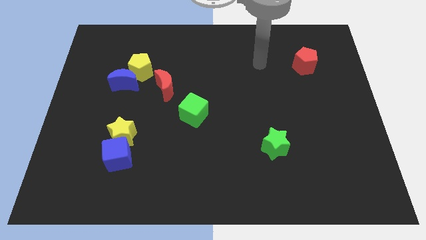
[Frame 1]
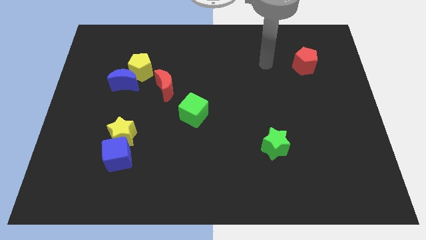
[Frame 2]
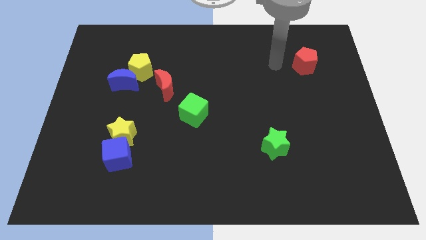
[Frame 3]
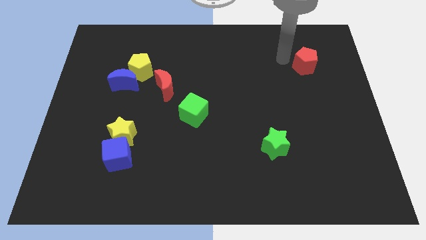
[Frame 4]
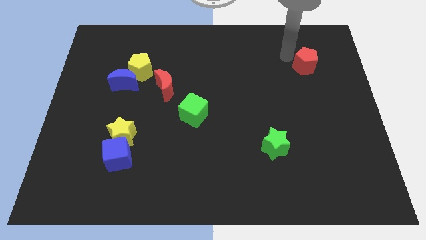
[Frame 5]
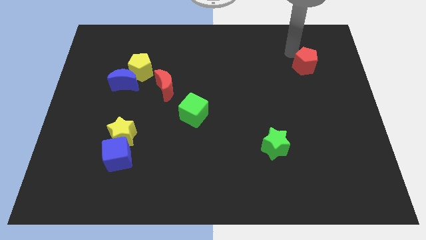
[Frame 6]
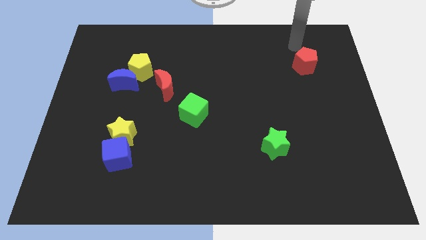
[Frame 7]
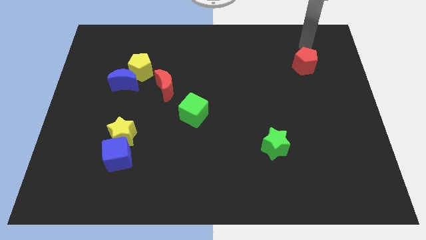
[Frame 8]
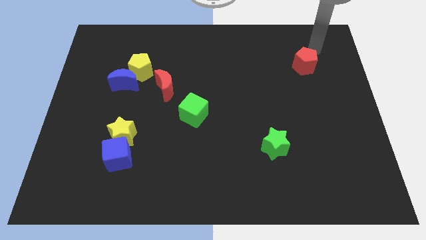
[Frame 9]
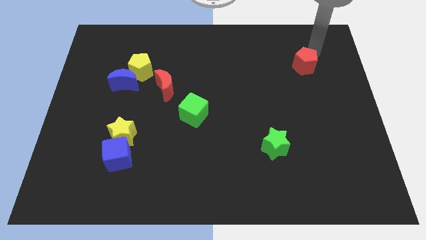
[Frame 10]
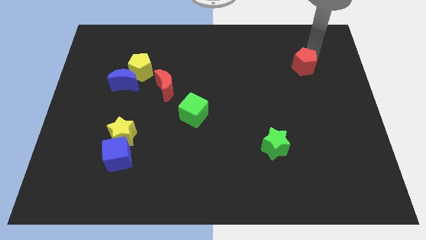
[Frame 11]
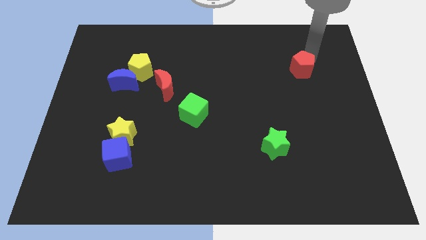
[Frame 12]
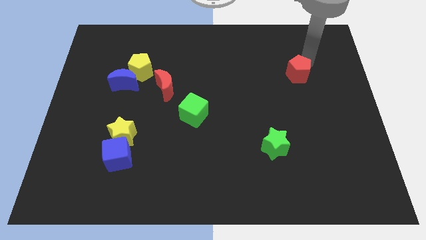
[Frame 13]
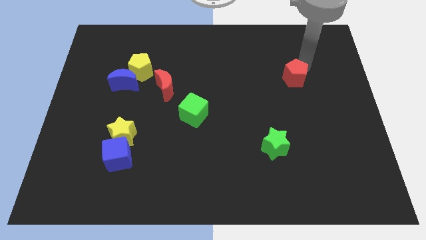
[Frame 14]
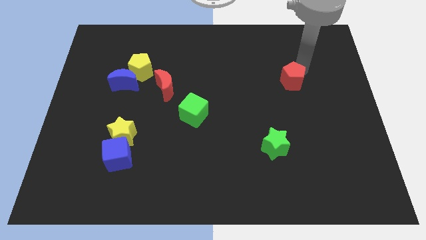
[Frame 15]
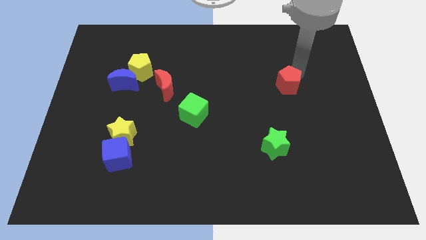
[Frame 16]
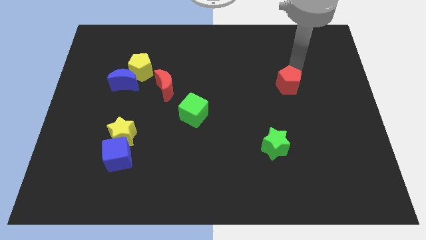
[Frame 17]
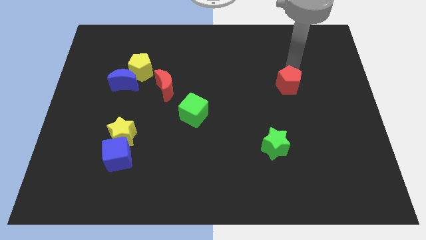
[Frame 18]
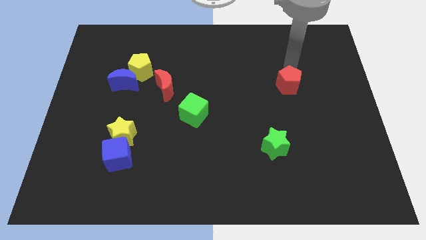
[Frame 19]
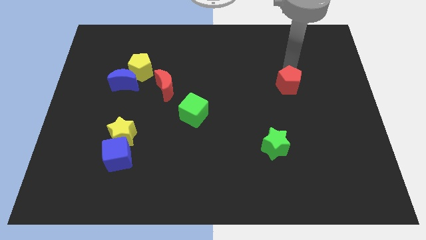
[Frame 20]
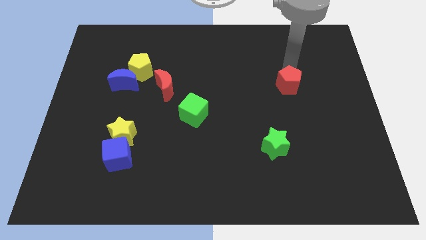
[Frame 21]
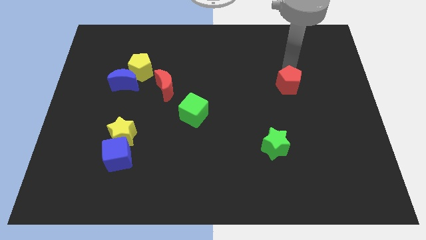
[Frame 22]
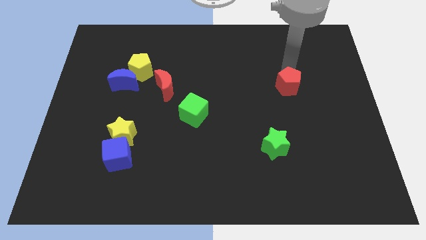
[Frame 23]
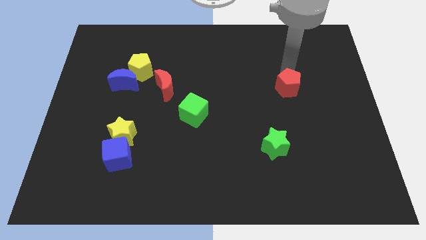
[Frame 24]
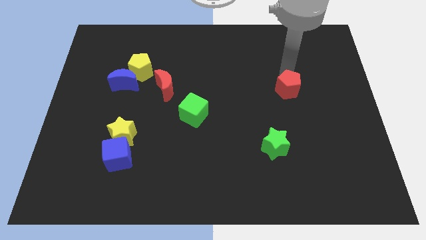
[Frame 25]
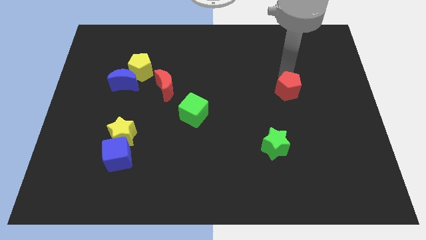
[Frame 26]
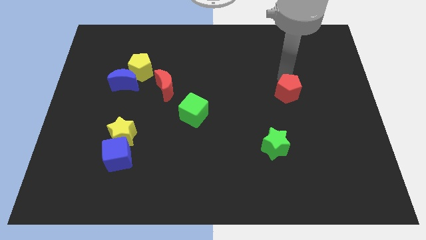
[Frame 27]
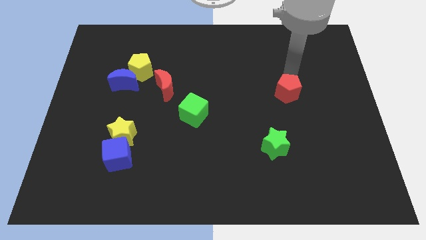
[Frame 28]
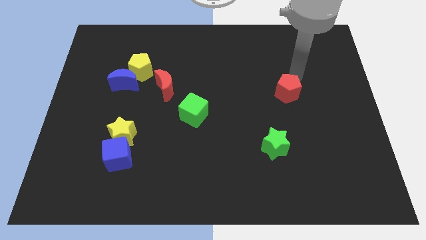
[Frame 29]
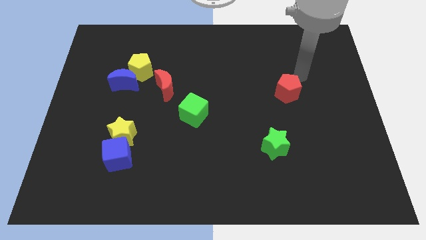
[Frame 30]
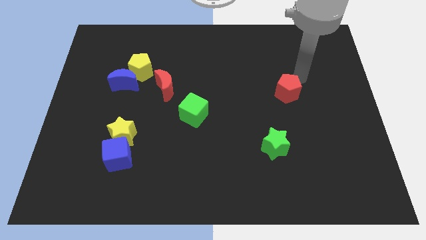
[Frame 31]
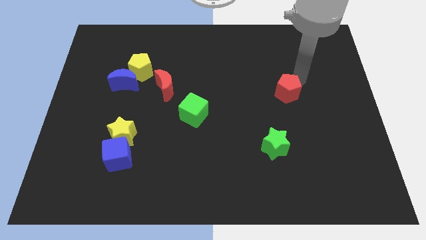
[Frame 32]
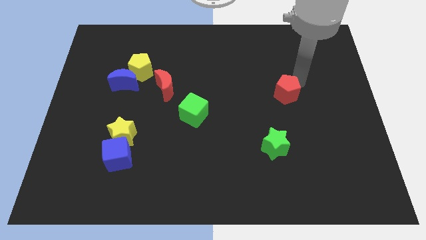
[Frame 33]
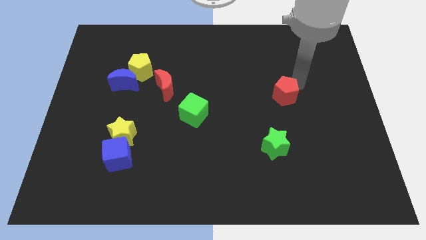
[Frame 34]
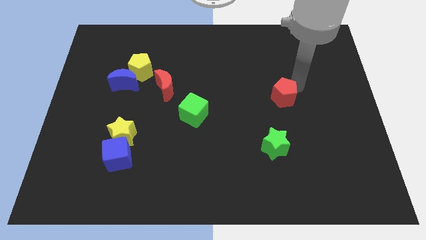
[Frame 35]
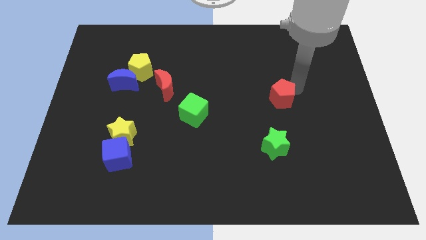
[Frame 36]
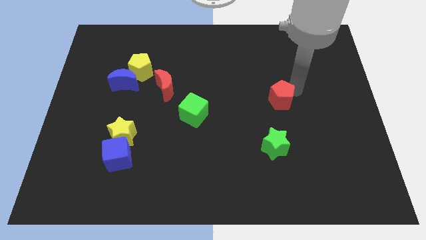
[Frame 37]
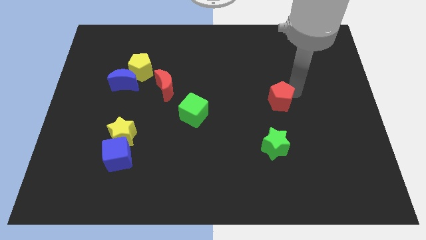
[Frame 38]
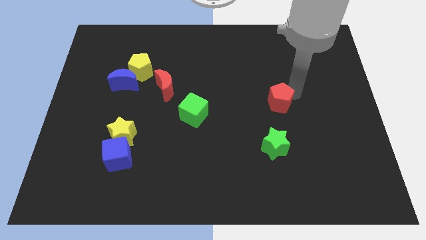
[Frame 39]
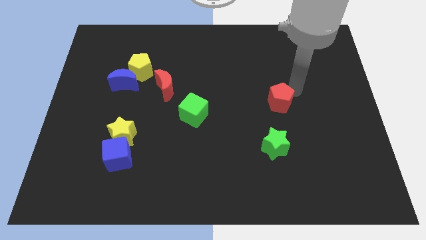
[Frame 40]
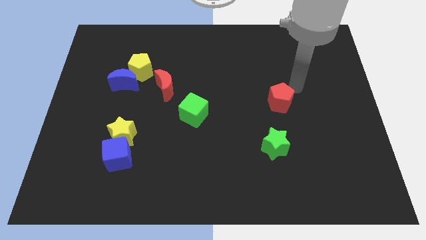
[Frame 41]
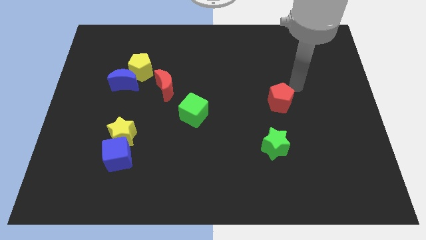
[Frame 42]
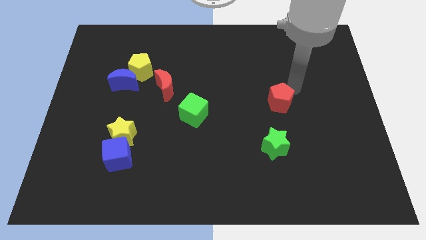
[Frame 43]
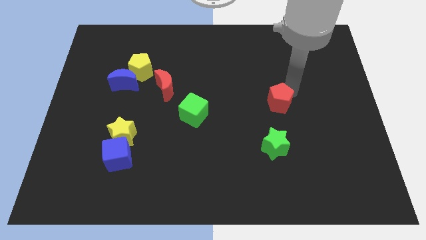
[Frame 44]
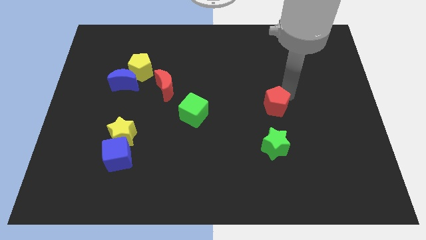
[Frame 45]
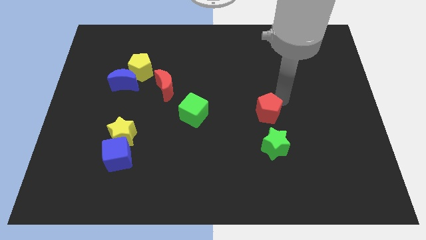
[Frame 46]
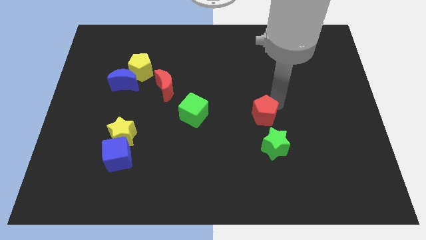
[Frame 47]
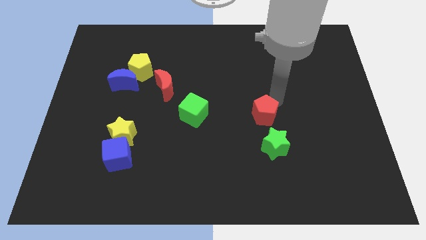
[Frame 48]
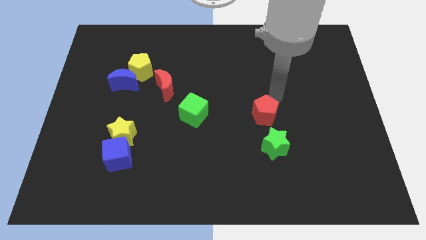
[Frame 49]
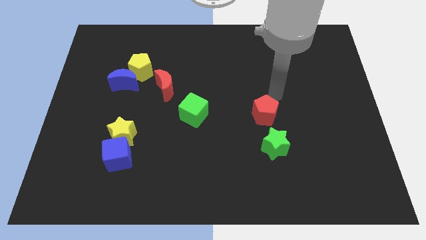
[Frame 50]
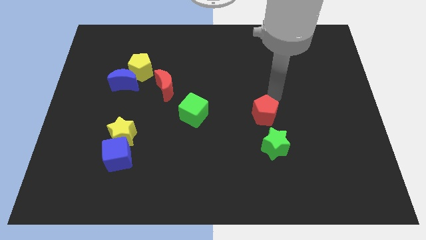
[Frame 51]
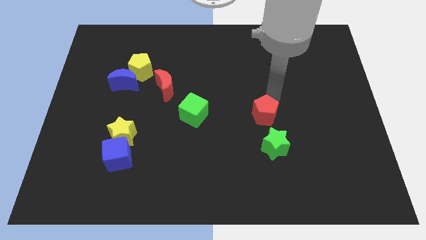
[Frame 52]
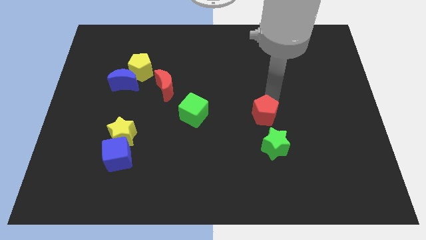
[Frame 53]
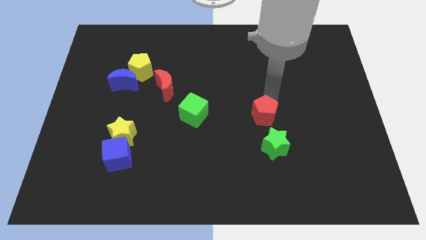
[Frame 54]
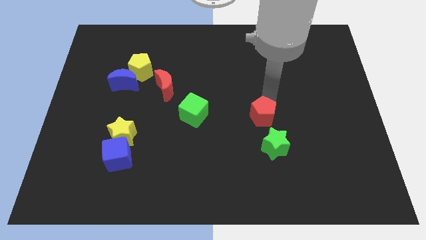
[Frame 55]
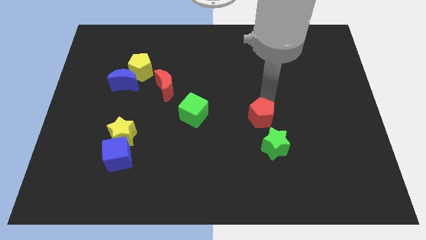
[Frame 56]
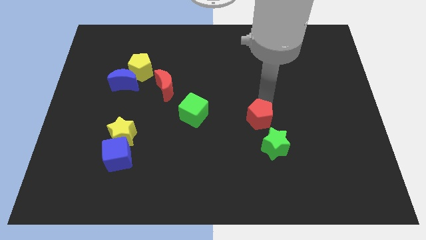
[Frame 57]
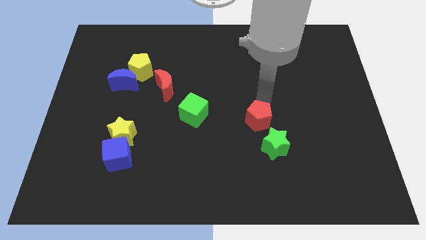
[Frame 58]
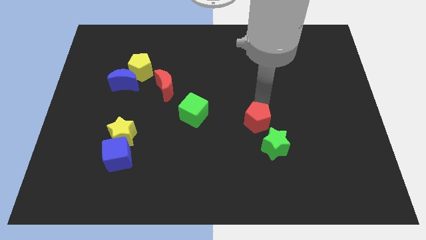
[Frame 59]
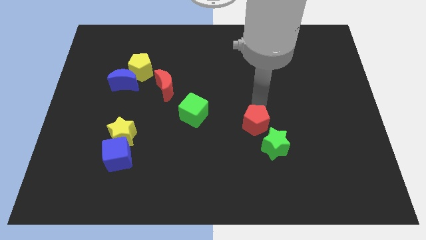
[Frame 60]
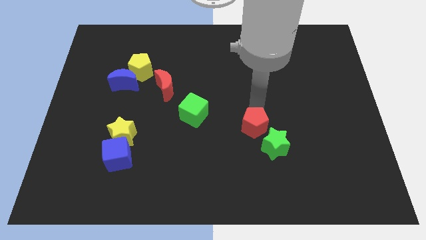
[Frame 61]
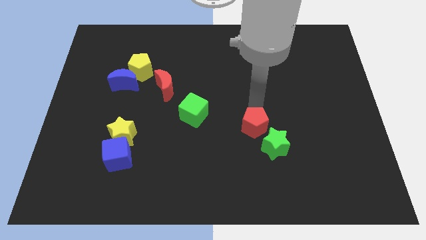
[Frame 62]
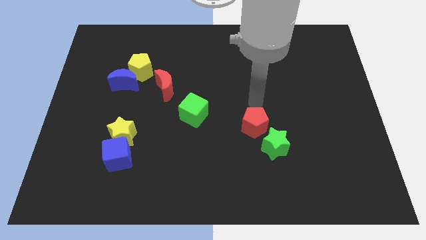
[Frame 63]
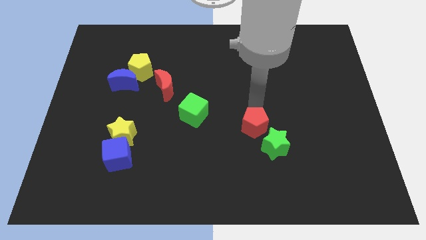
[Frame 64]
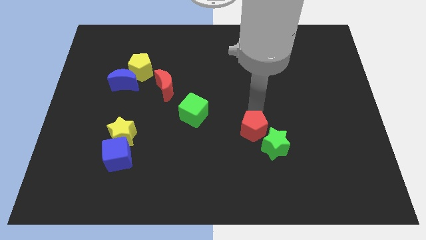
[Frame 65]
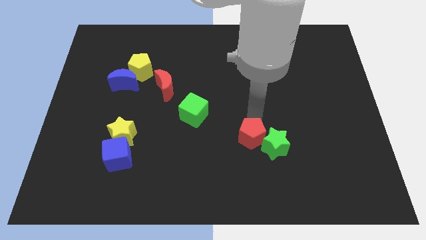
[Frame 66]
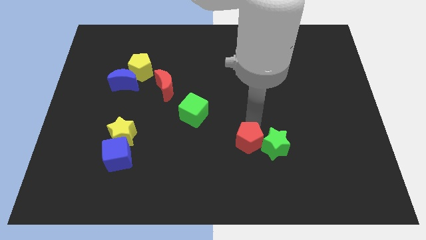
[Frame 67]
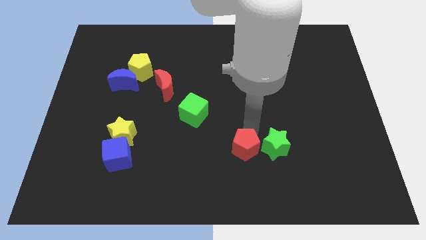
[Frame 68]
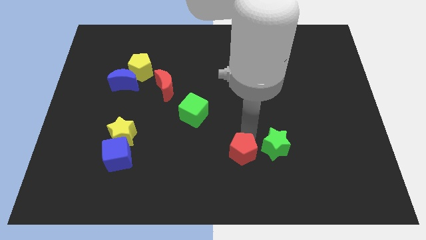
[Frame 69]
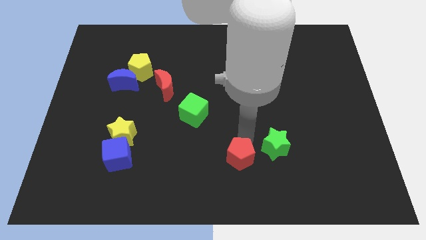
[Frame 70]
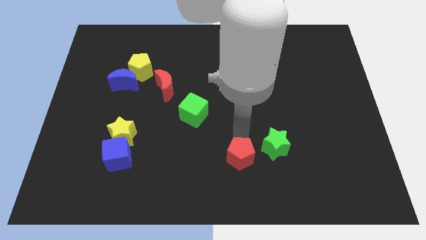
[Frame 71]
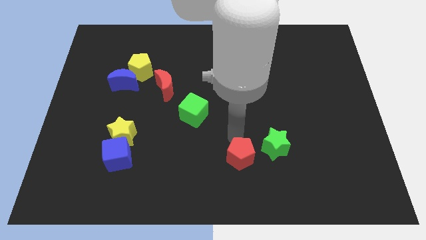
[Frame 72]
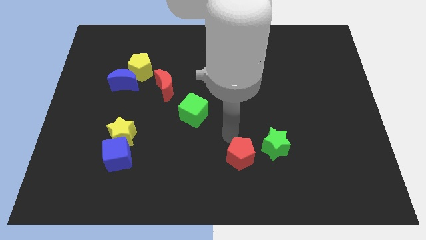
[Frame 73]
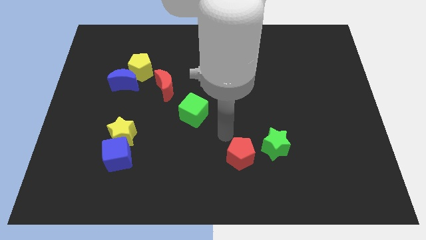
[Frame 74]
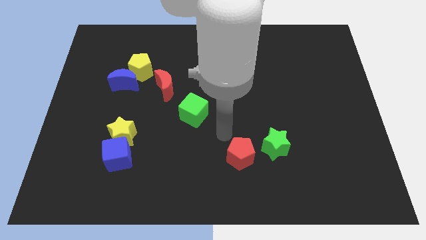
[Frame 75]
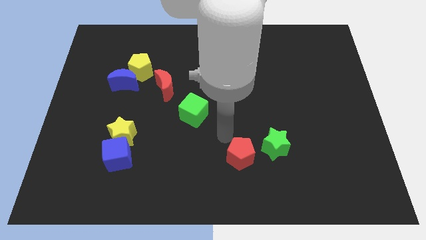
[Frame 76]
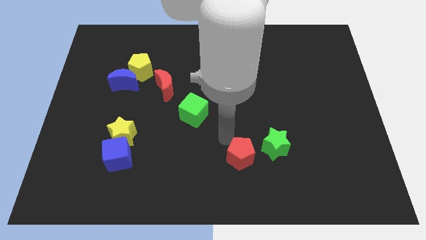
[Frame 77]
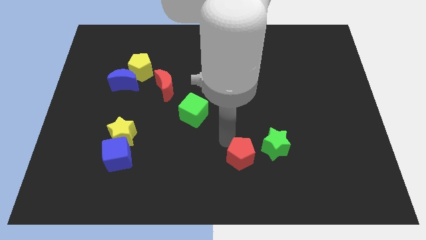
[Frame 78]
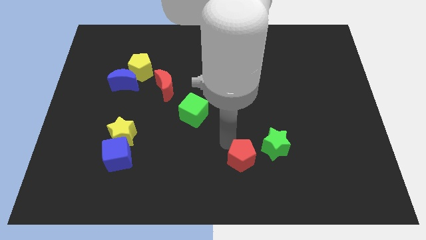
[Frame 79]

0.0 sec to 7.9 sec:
put the red pentagon to the bottom side
